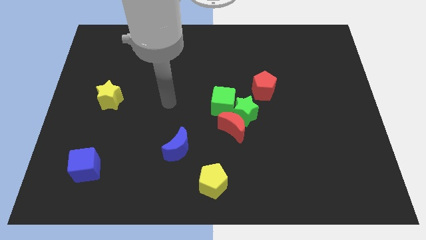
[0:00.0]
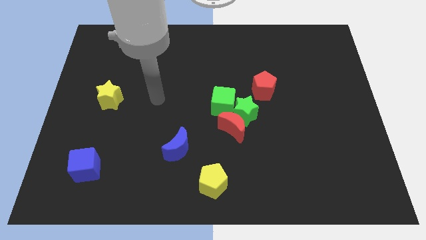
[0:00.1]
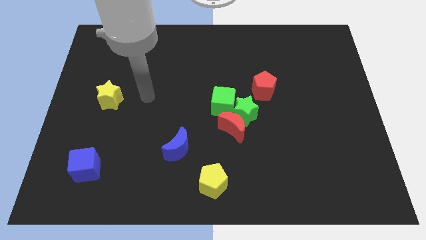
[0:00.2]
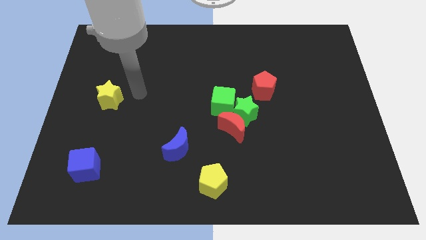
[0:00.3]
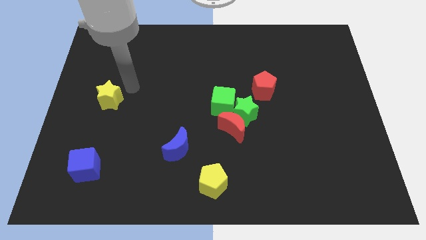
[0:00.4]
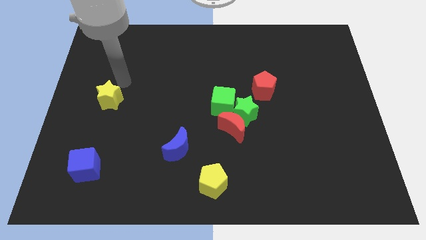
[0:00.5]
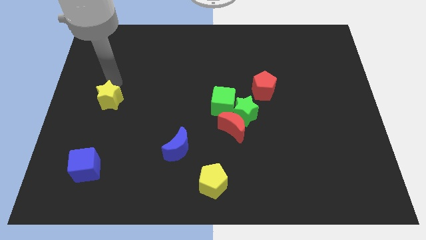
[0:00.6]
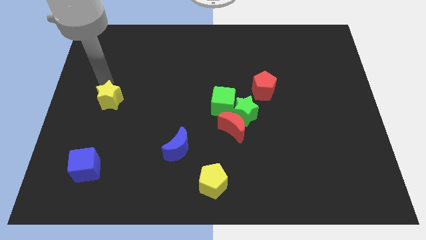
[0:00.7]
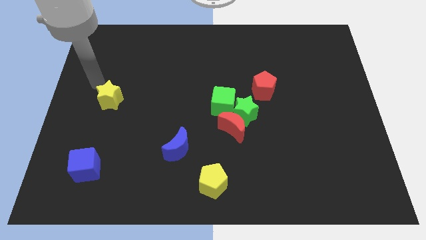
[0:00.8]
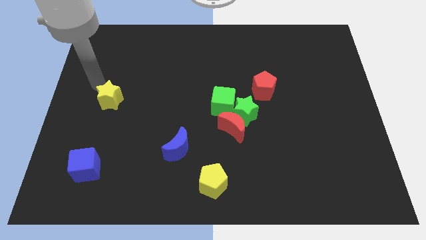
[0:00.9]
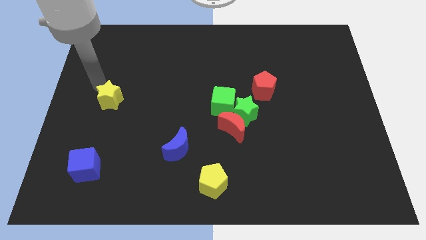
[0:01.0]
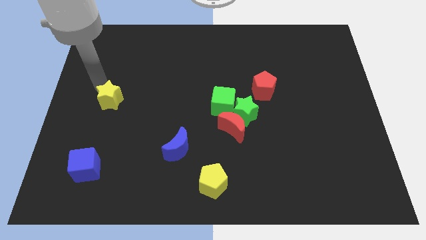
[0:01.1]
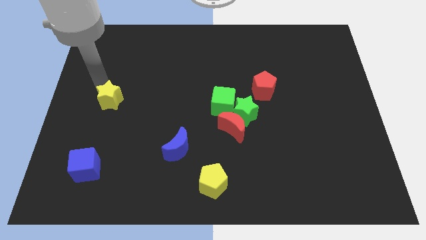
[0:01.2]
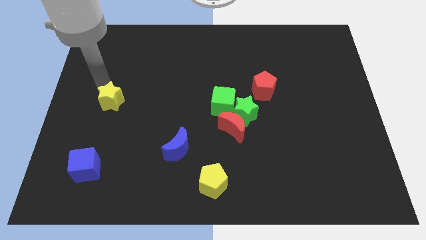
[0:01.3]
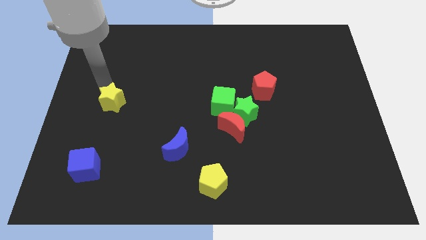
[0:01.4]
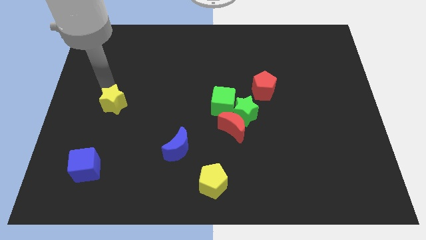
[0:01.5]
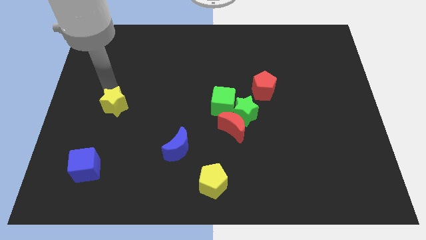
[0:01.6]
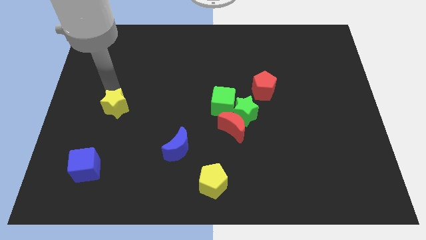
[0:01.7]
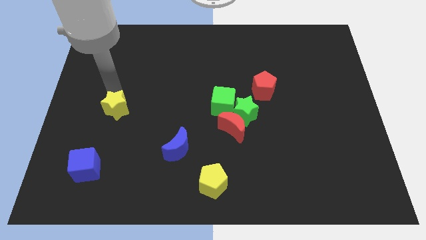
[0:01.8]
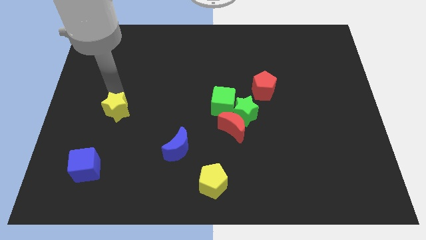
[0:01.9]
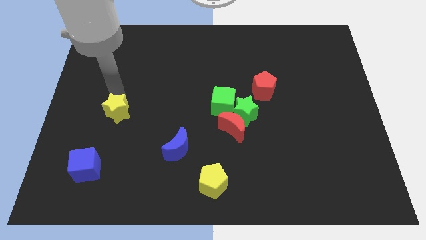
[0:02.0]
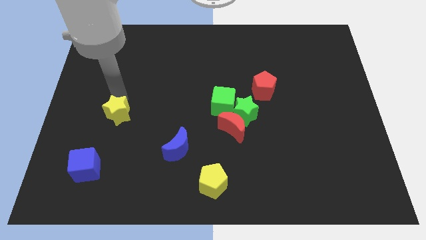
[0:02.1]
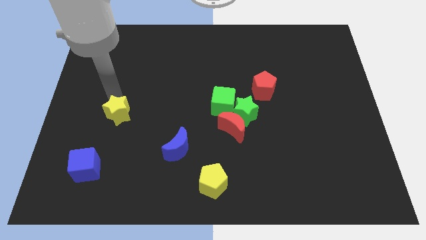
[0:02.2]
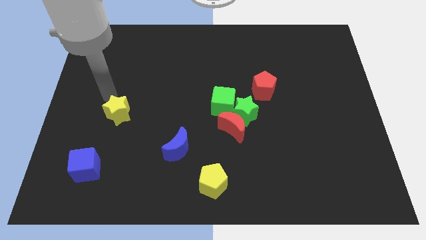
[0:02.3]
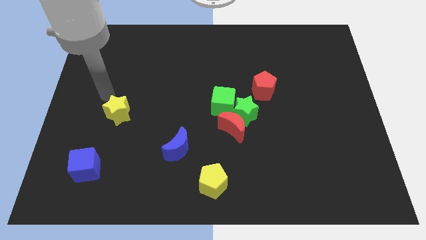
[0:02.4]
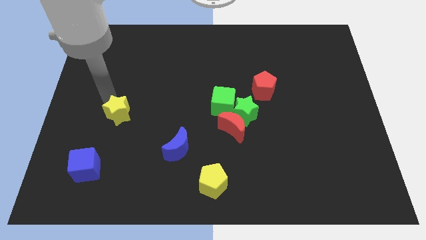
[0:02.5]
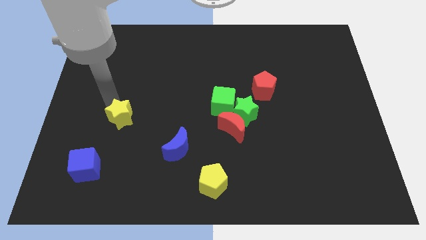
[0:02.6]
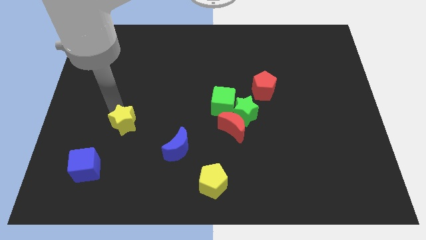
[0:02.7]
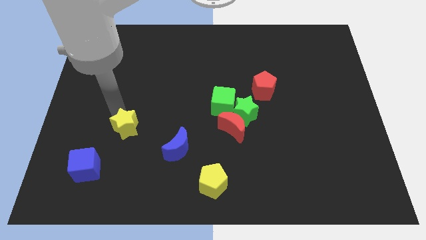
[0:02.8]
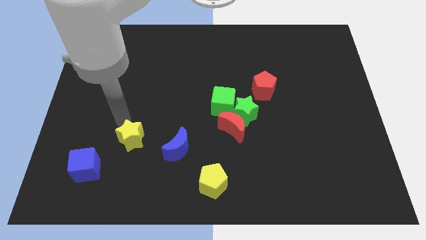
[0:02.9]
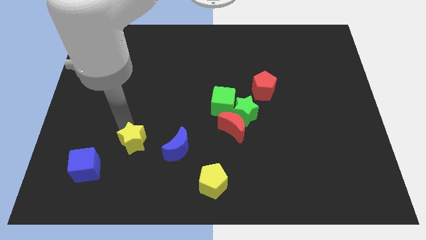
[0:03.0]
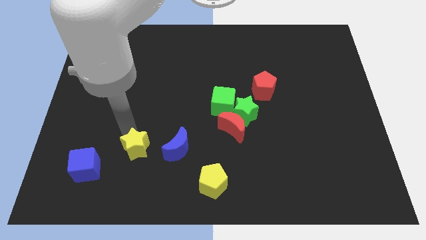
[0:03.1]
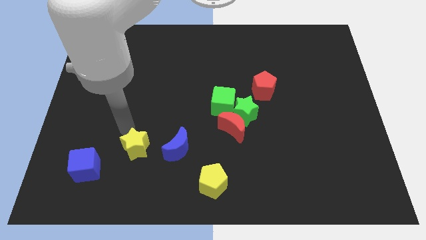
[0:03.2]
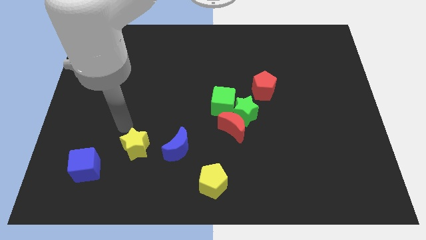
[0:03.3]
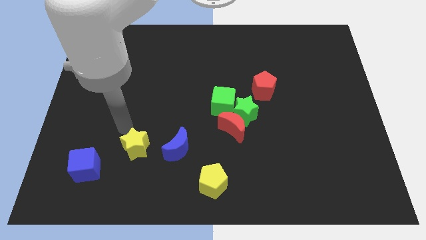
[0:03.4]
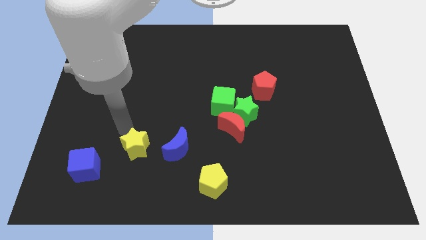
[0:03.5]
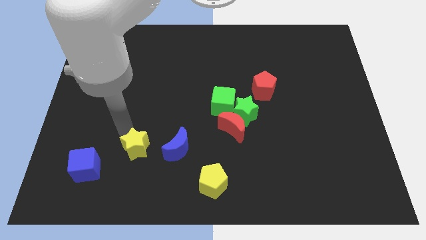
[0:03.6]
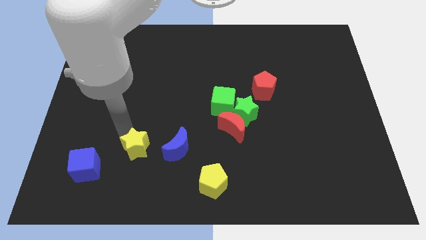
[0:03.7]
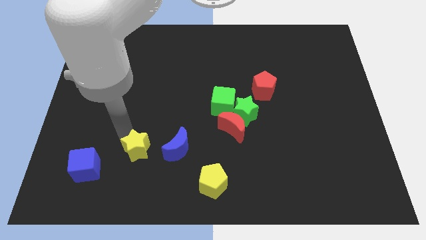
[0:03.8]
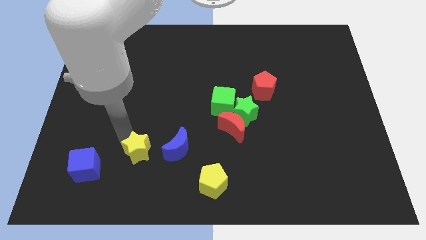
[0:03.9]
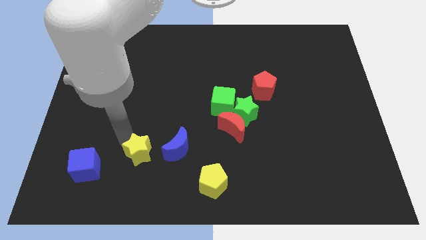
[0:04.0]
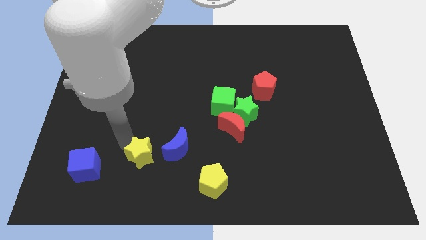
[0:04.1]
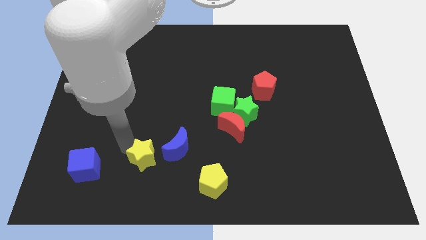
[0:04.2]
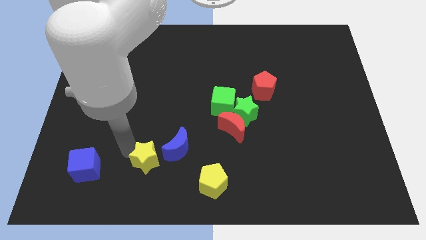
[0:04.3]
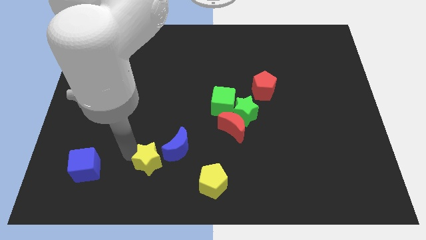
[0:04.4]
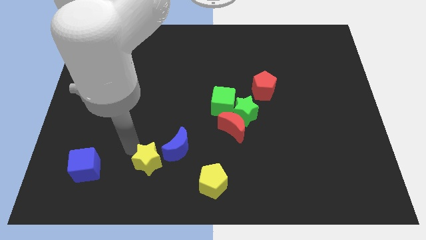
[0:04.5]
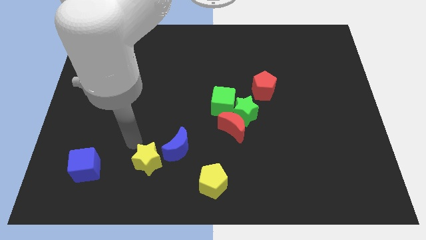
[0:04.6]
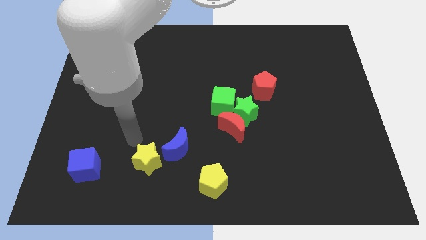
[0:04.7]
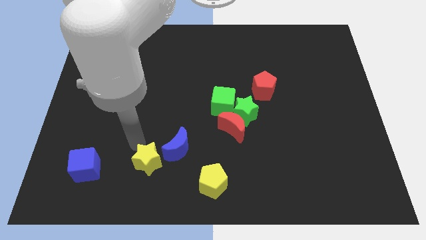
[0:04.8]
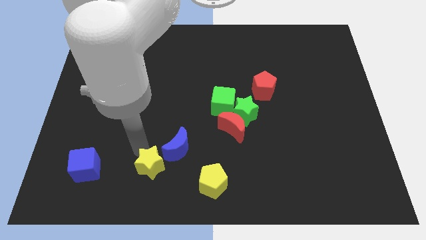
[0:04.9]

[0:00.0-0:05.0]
push the yellow star left of the yellow pentagon

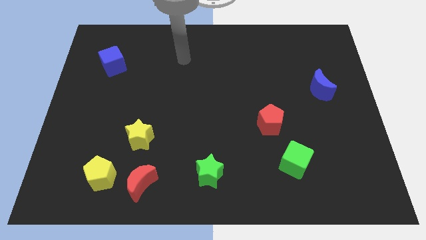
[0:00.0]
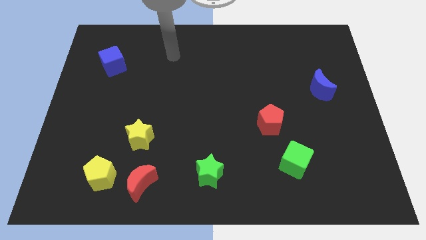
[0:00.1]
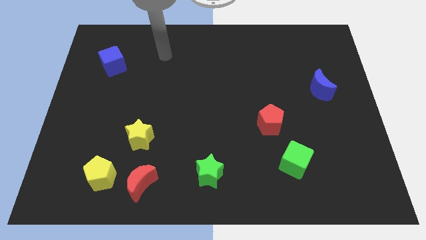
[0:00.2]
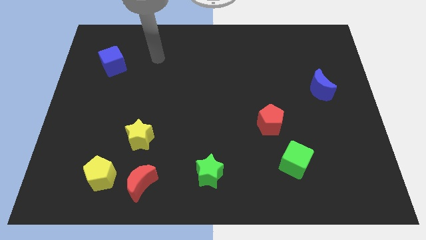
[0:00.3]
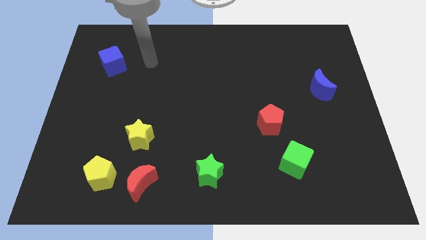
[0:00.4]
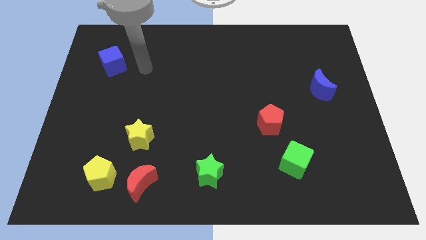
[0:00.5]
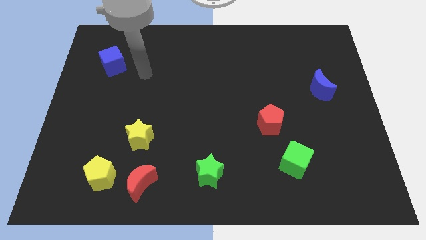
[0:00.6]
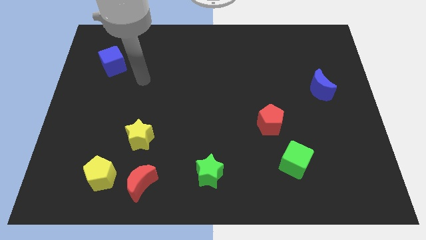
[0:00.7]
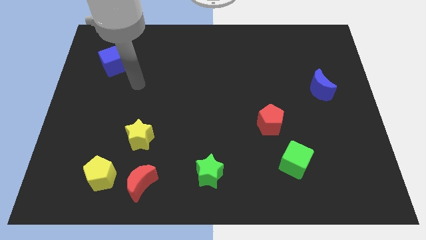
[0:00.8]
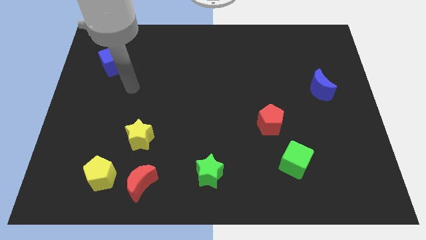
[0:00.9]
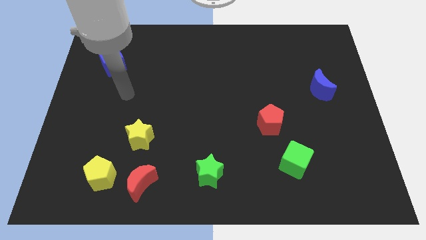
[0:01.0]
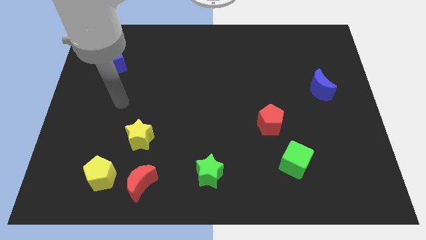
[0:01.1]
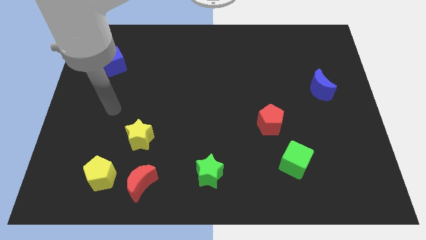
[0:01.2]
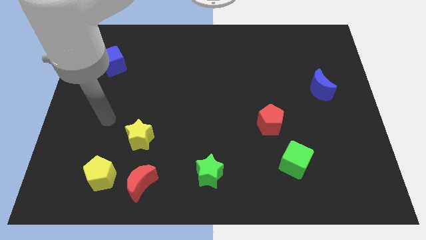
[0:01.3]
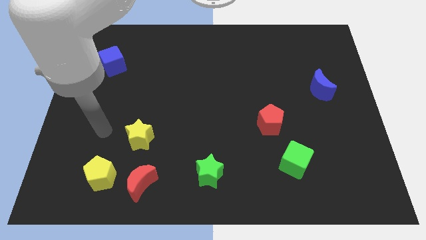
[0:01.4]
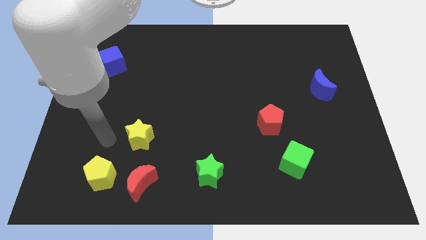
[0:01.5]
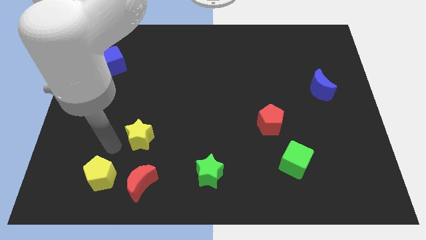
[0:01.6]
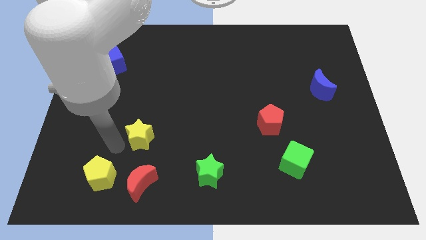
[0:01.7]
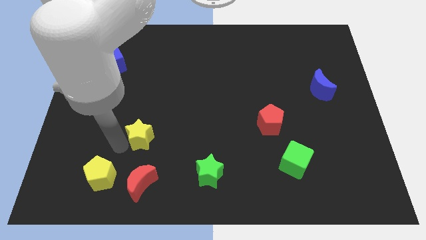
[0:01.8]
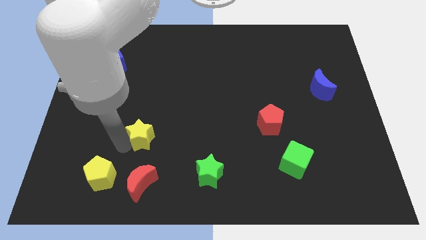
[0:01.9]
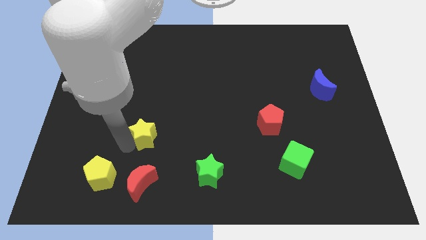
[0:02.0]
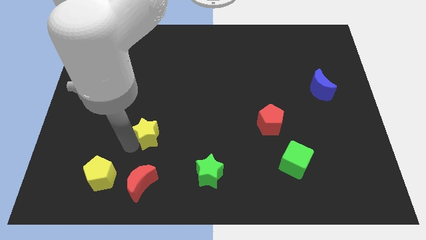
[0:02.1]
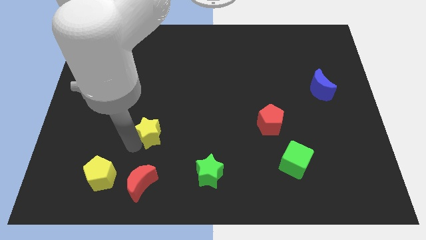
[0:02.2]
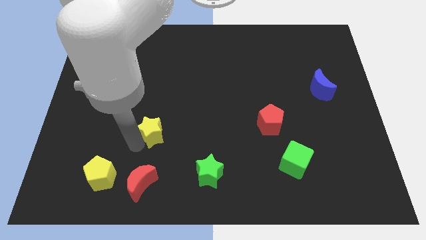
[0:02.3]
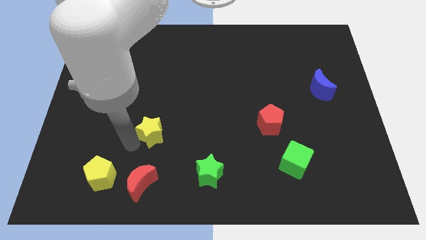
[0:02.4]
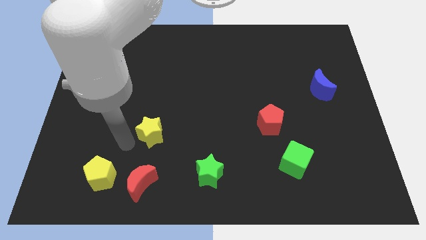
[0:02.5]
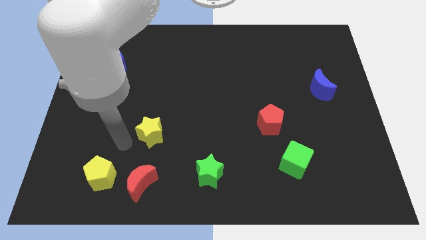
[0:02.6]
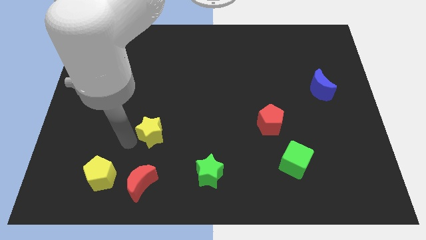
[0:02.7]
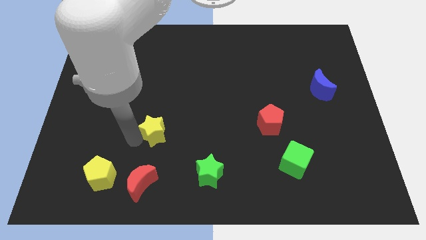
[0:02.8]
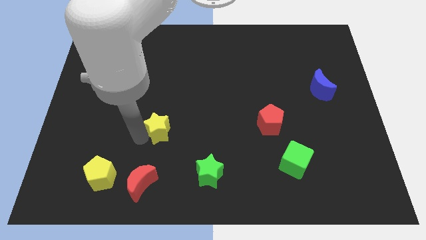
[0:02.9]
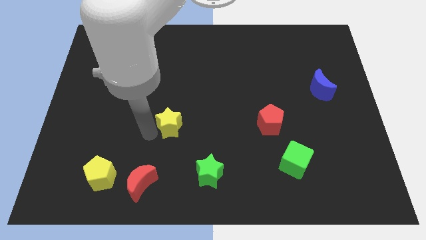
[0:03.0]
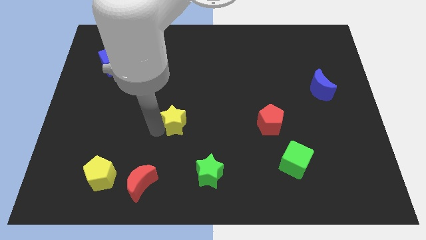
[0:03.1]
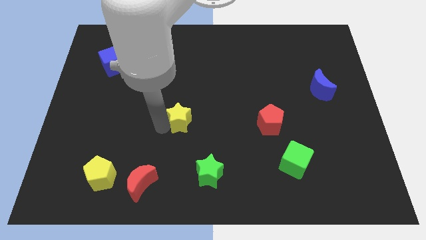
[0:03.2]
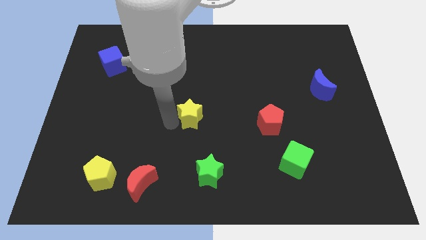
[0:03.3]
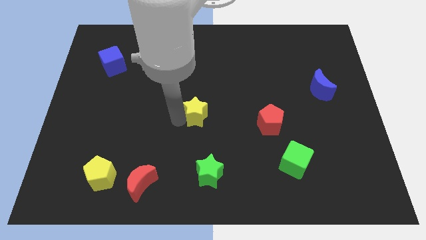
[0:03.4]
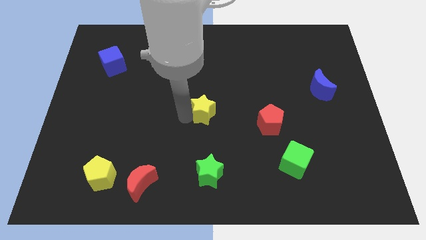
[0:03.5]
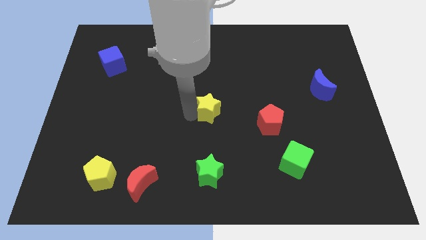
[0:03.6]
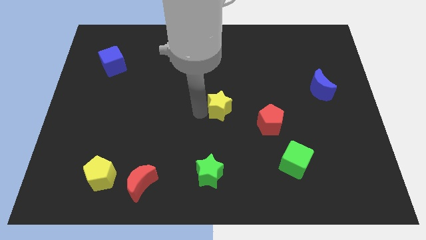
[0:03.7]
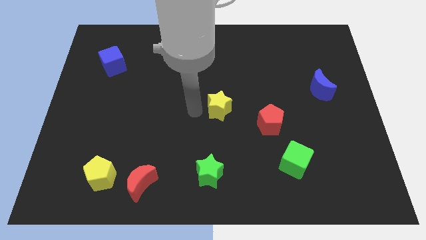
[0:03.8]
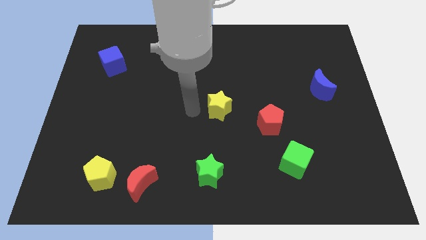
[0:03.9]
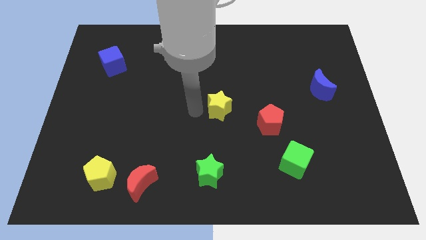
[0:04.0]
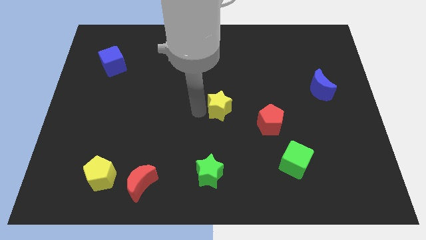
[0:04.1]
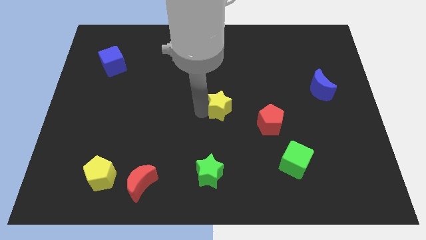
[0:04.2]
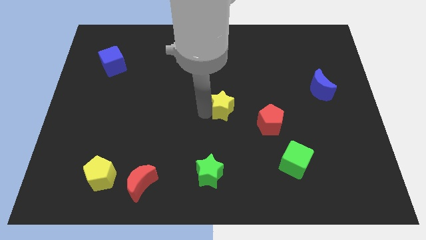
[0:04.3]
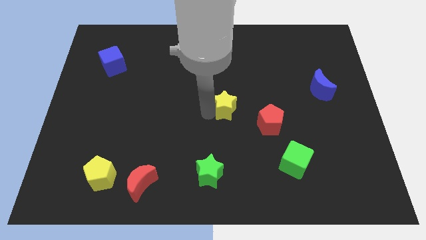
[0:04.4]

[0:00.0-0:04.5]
put the yellow star diagonally up and to the left of the red pentagon
